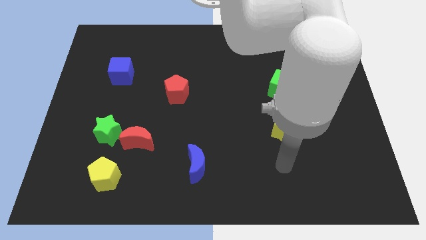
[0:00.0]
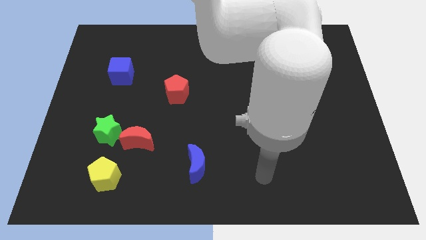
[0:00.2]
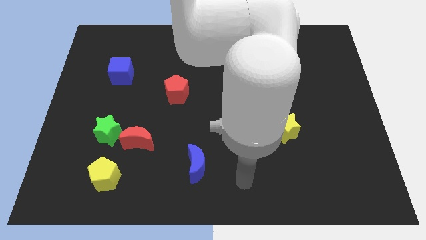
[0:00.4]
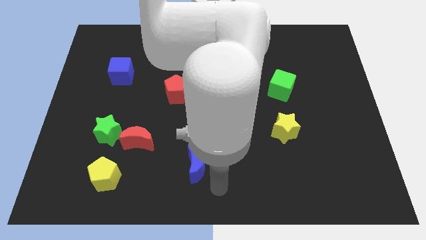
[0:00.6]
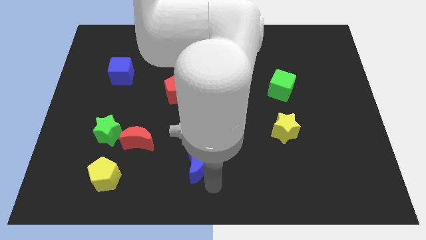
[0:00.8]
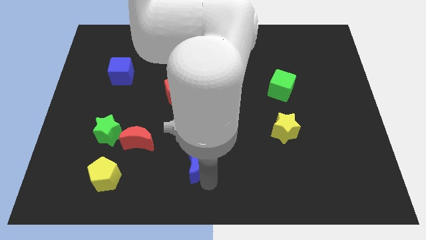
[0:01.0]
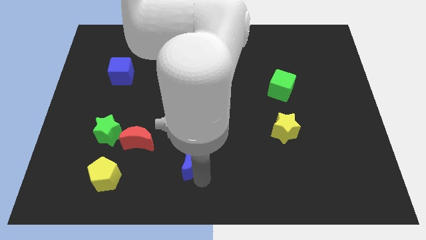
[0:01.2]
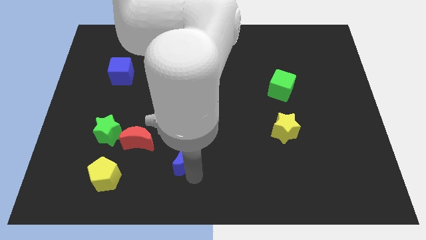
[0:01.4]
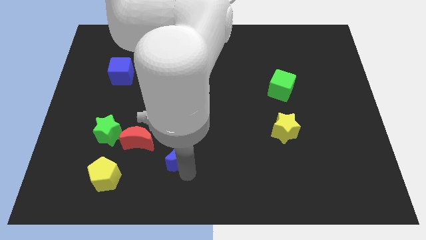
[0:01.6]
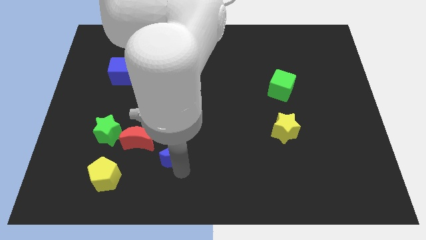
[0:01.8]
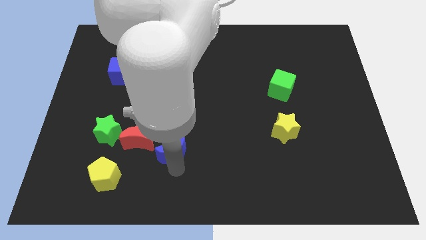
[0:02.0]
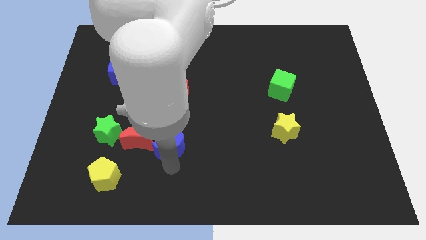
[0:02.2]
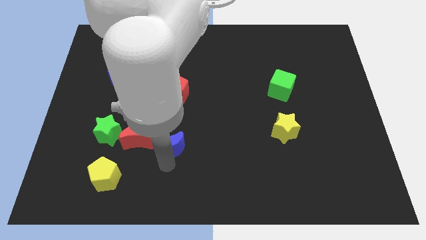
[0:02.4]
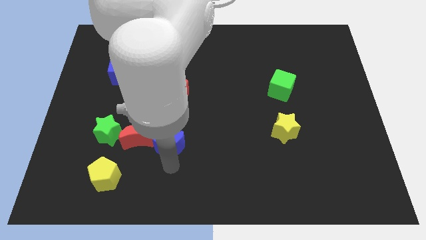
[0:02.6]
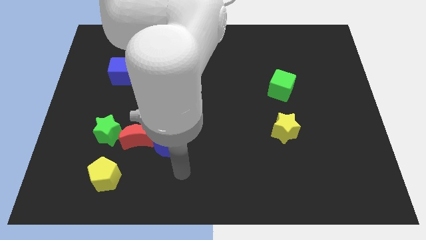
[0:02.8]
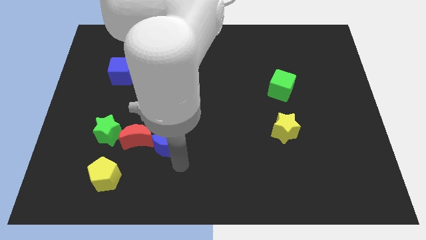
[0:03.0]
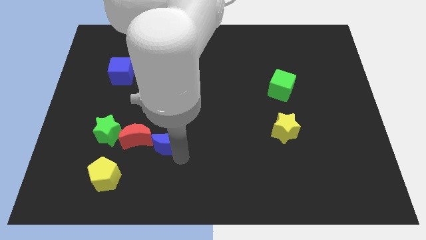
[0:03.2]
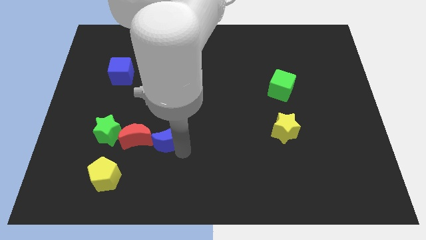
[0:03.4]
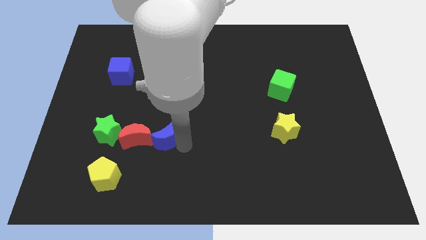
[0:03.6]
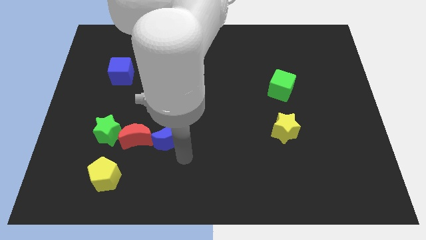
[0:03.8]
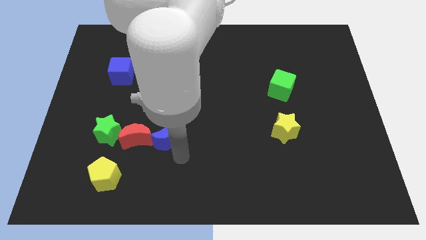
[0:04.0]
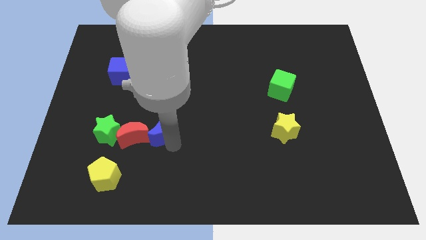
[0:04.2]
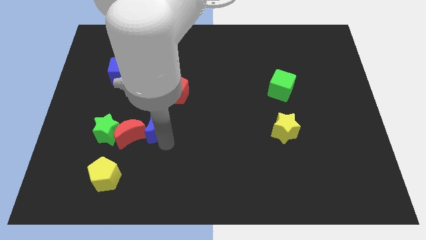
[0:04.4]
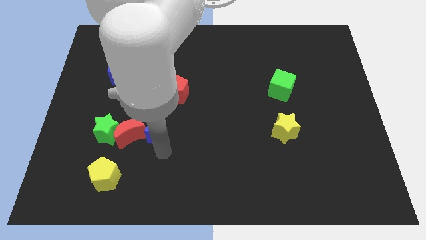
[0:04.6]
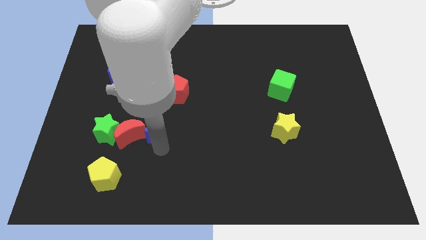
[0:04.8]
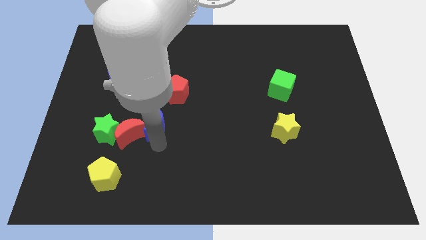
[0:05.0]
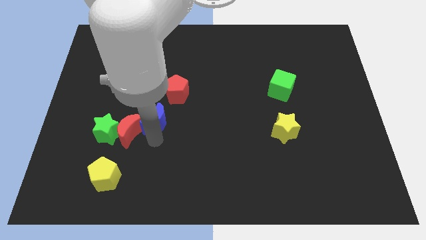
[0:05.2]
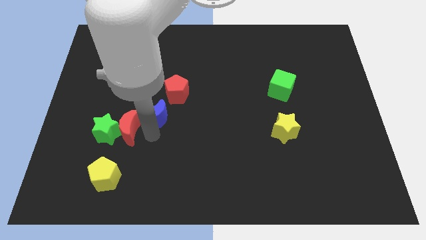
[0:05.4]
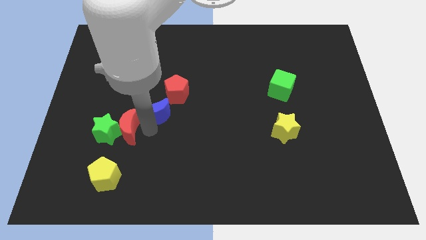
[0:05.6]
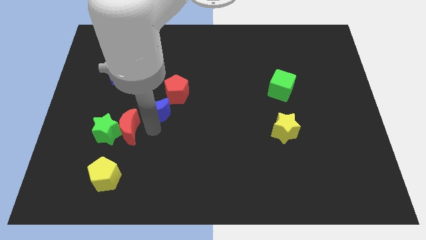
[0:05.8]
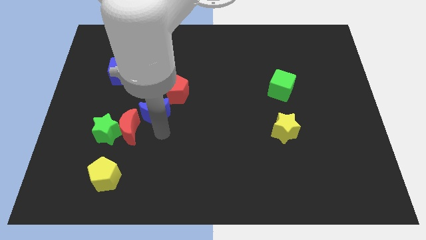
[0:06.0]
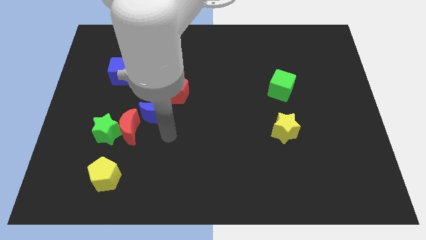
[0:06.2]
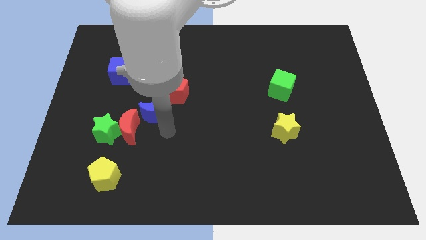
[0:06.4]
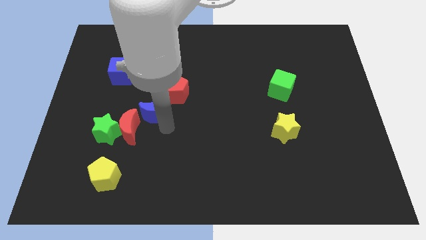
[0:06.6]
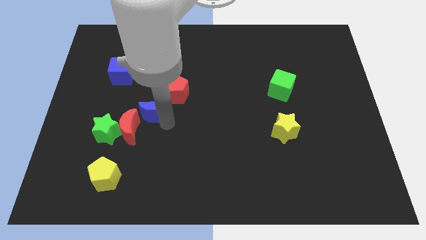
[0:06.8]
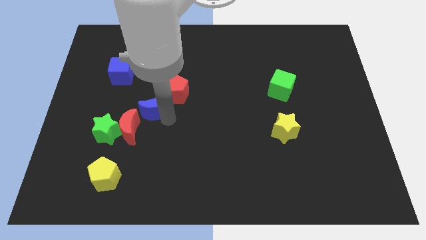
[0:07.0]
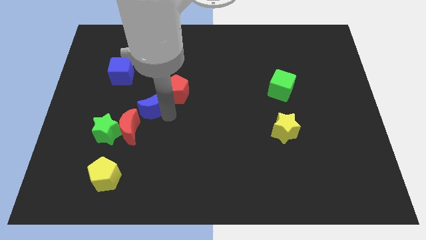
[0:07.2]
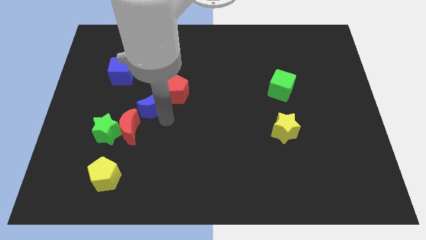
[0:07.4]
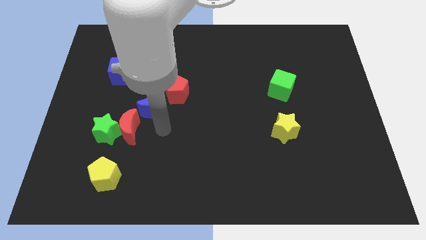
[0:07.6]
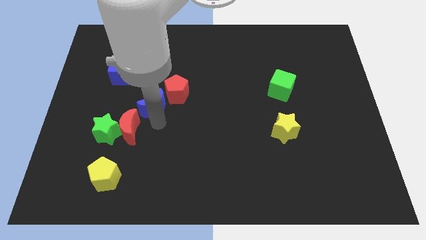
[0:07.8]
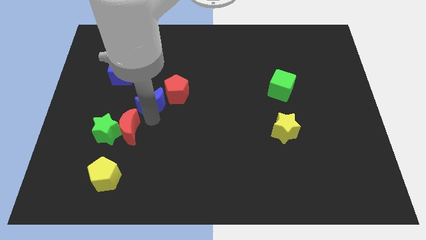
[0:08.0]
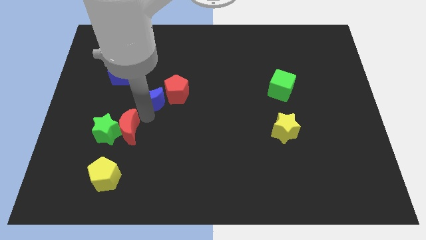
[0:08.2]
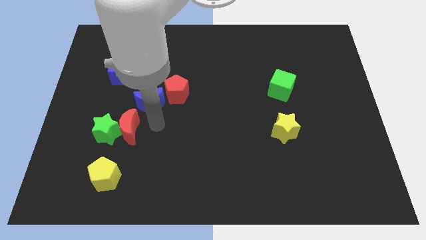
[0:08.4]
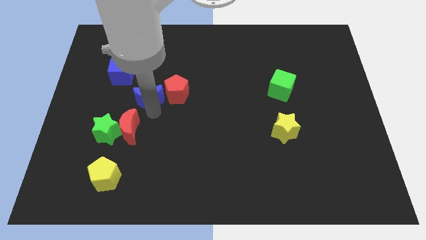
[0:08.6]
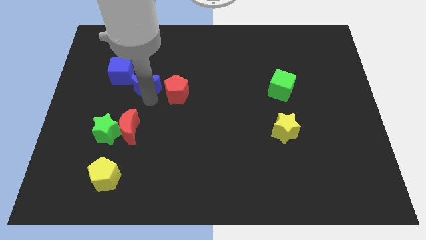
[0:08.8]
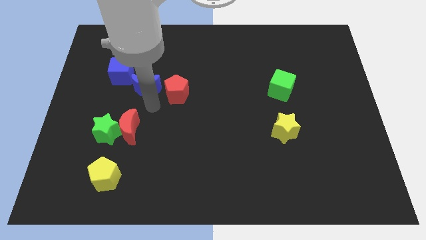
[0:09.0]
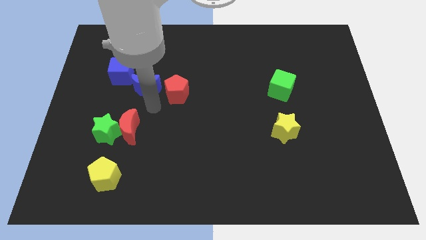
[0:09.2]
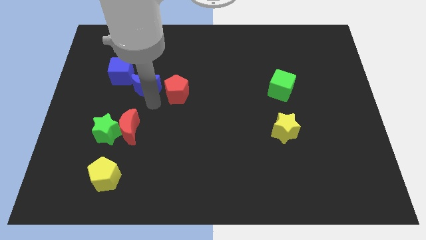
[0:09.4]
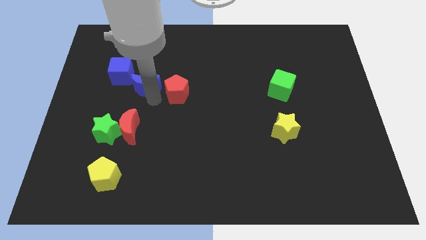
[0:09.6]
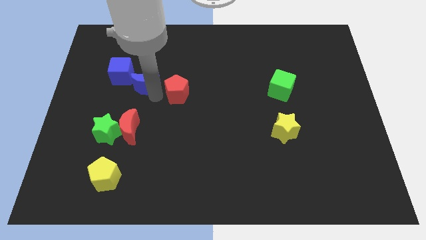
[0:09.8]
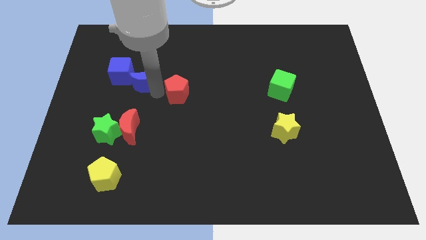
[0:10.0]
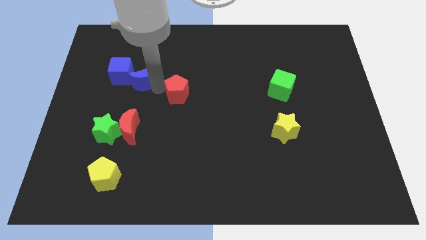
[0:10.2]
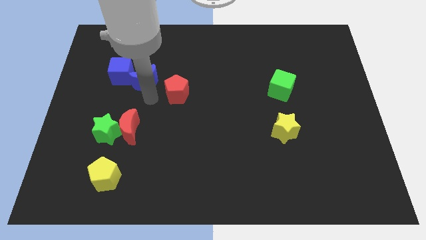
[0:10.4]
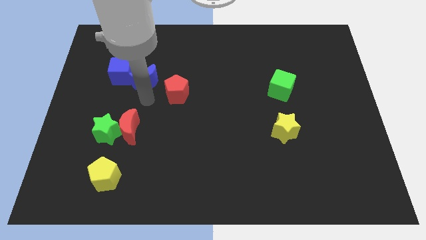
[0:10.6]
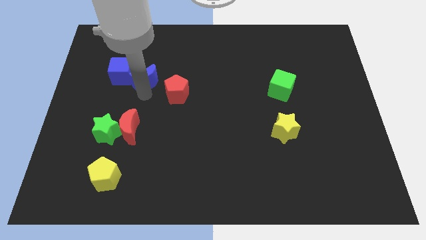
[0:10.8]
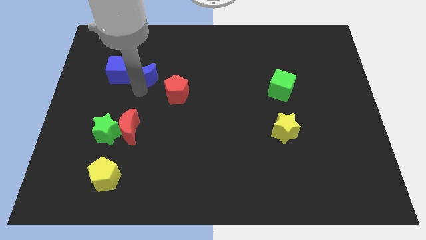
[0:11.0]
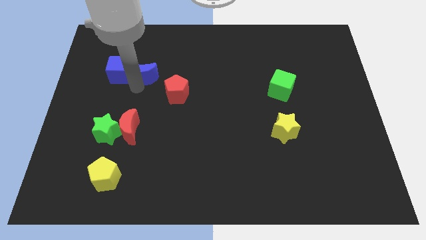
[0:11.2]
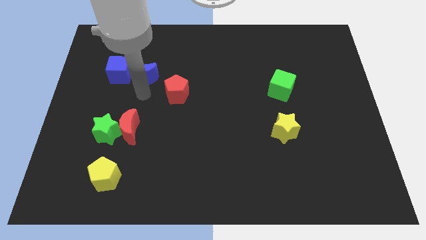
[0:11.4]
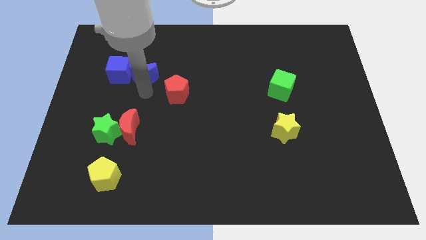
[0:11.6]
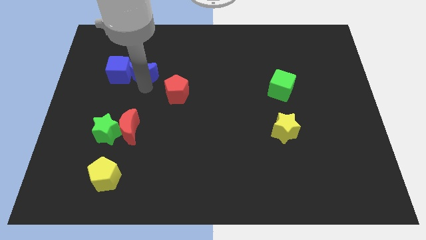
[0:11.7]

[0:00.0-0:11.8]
put the blue moon to the top right side of the blue cube

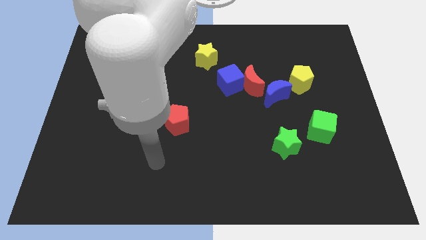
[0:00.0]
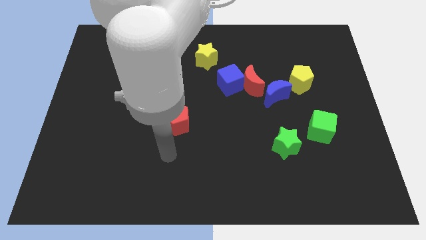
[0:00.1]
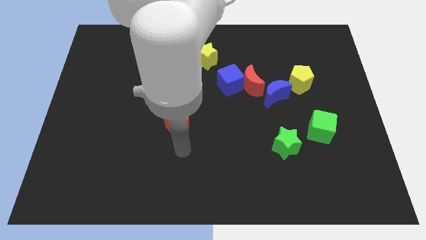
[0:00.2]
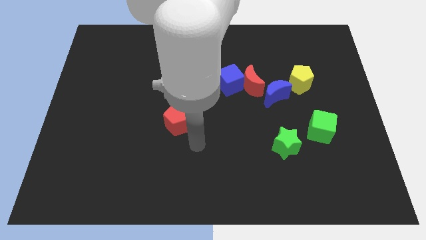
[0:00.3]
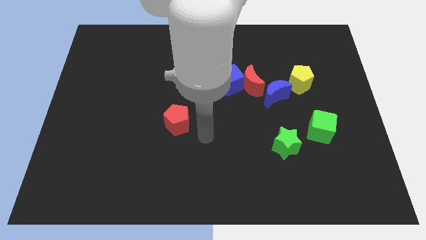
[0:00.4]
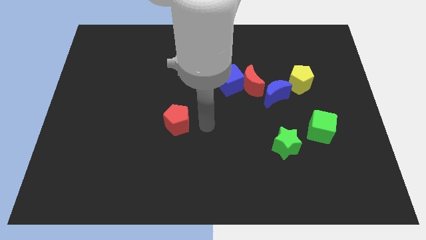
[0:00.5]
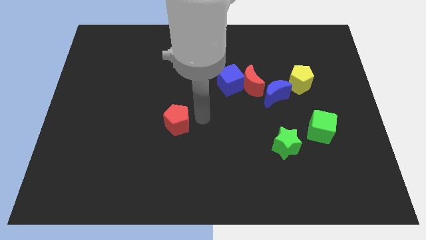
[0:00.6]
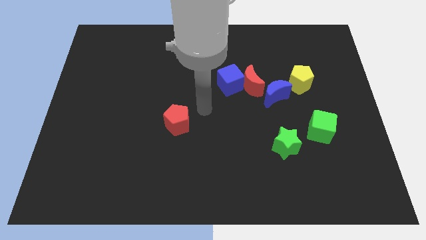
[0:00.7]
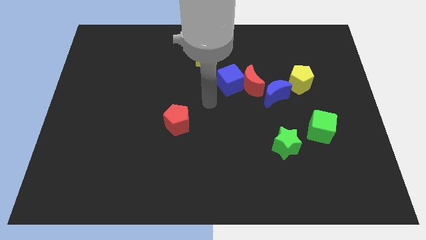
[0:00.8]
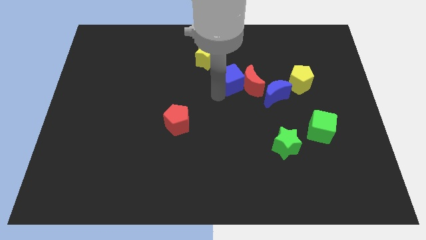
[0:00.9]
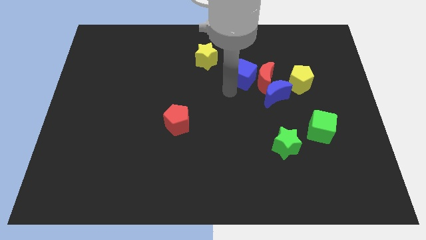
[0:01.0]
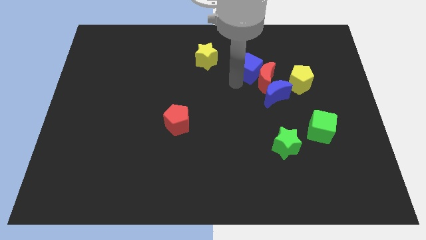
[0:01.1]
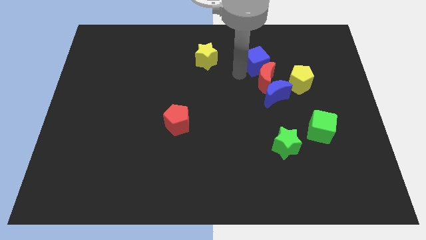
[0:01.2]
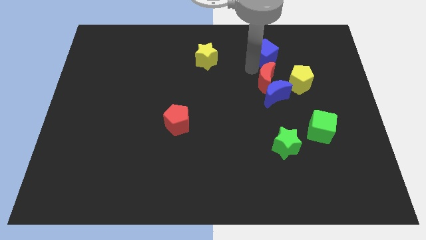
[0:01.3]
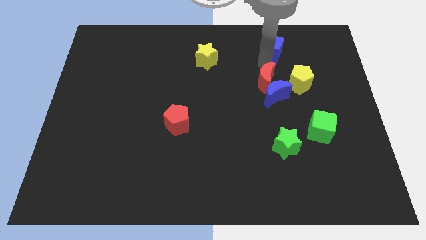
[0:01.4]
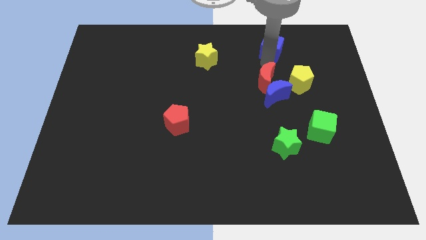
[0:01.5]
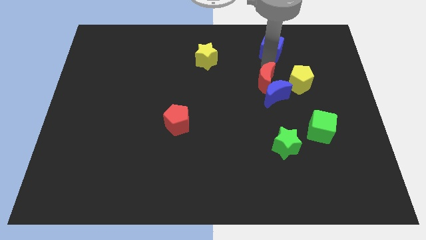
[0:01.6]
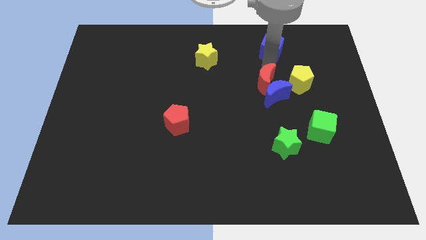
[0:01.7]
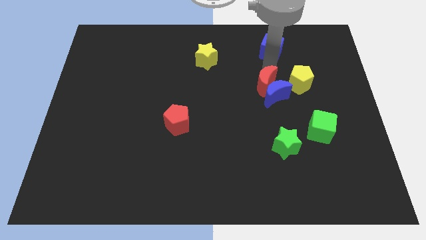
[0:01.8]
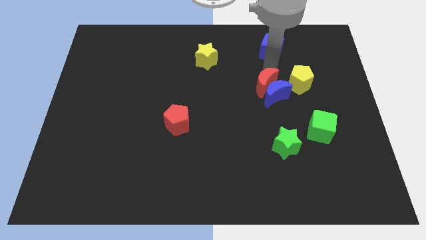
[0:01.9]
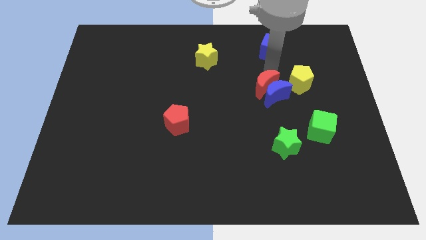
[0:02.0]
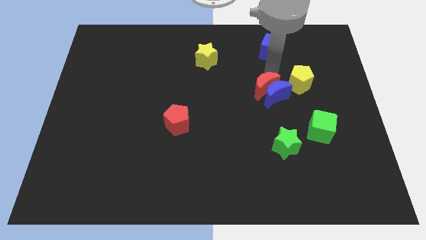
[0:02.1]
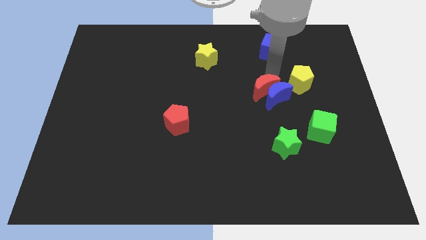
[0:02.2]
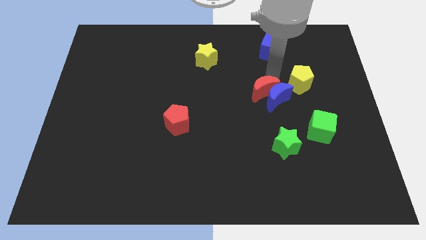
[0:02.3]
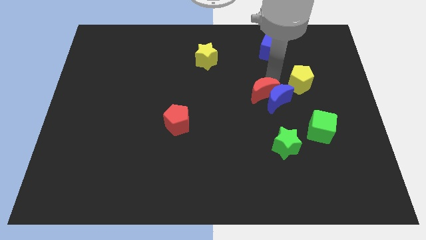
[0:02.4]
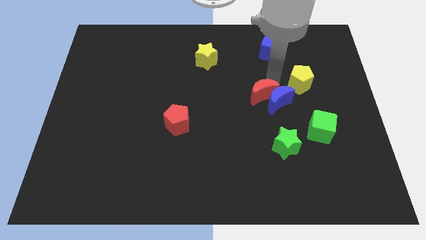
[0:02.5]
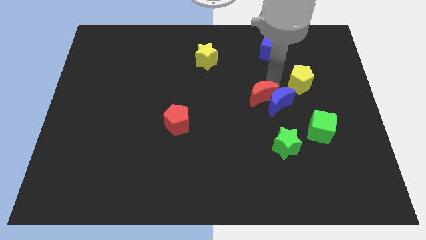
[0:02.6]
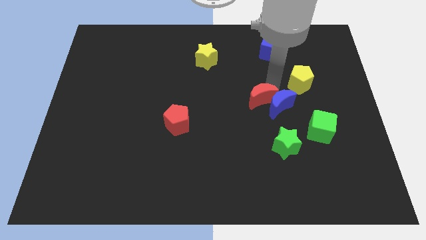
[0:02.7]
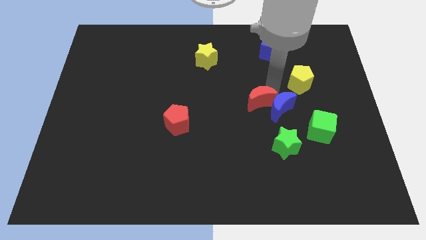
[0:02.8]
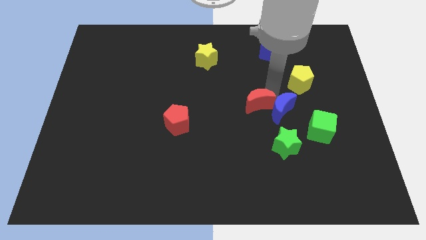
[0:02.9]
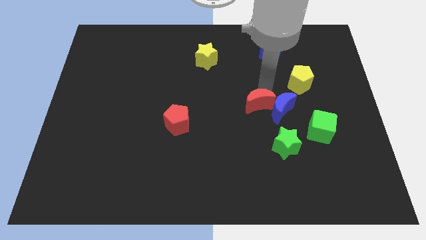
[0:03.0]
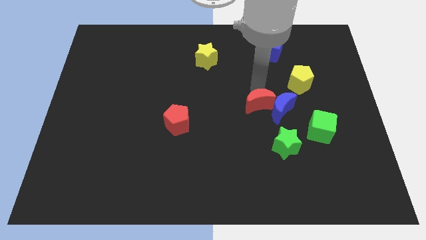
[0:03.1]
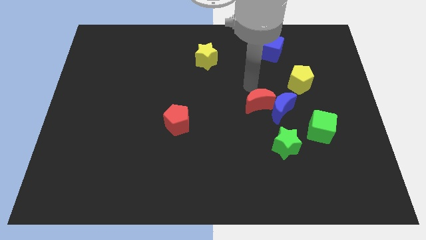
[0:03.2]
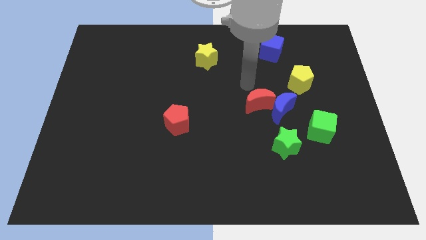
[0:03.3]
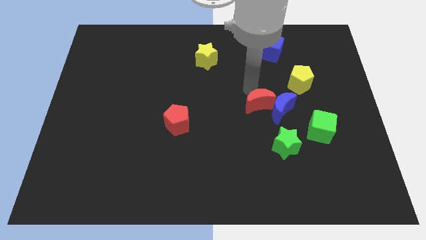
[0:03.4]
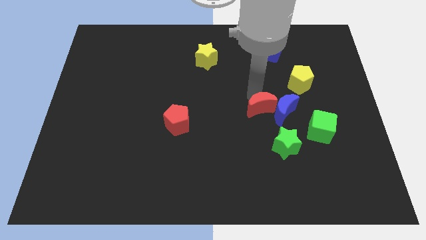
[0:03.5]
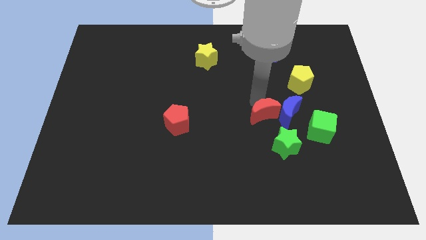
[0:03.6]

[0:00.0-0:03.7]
put the red moon left of the green cube
